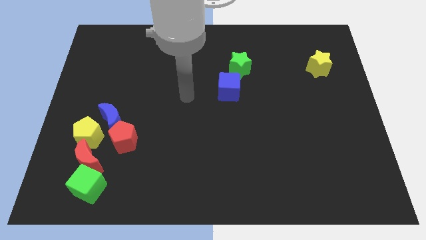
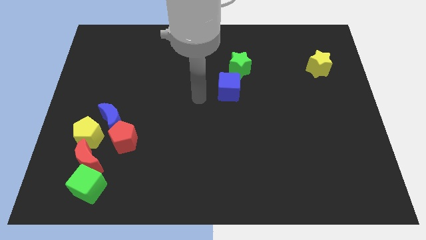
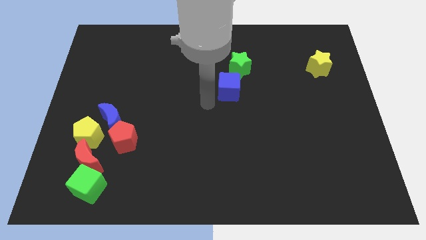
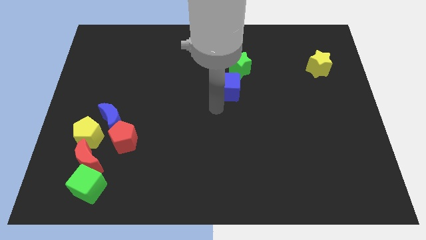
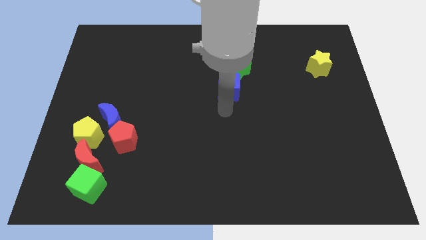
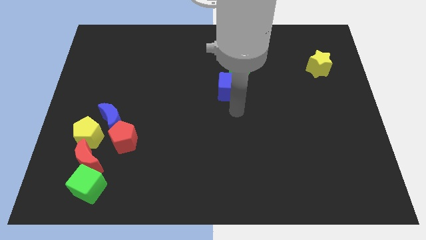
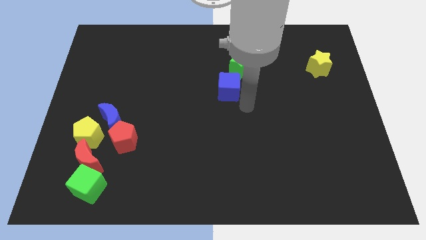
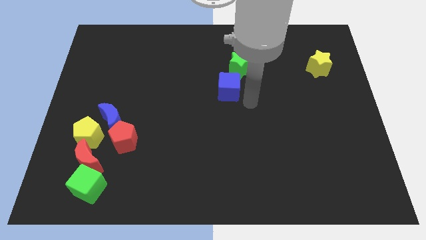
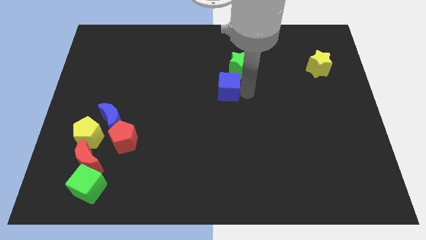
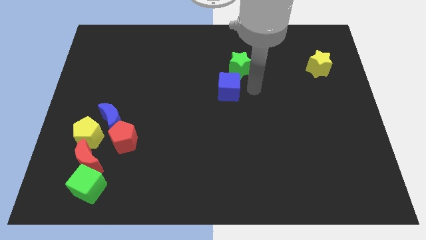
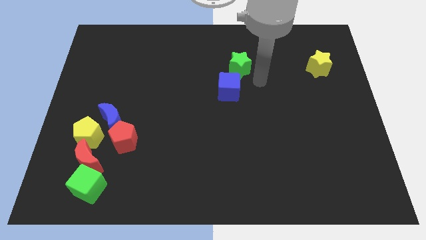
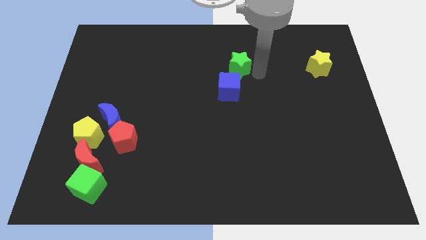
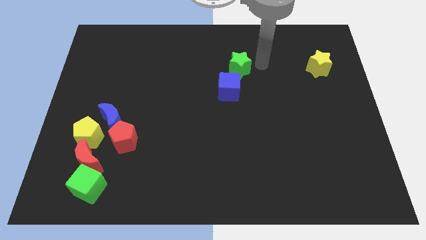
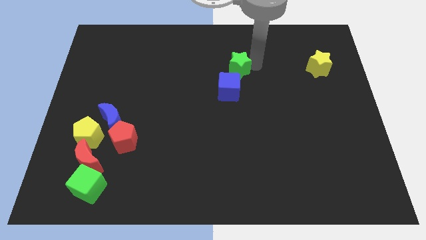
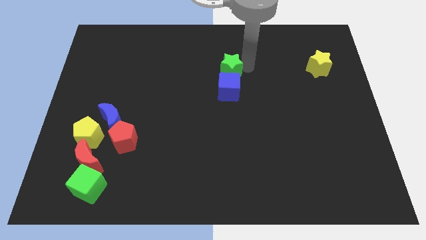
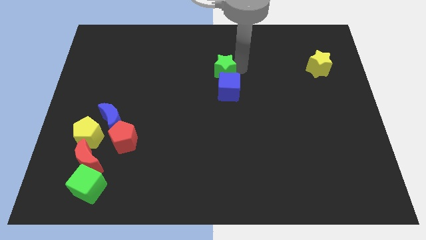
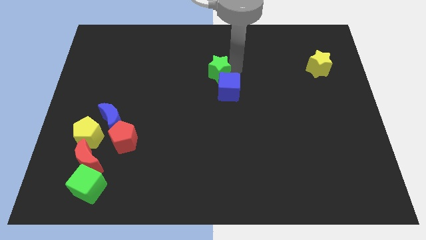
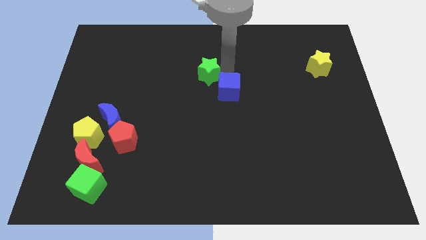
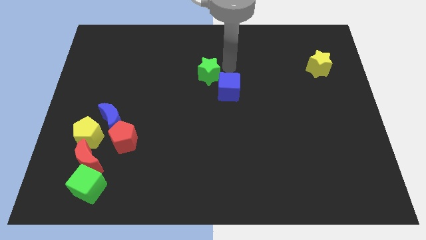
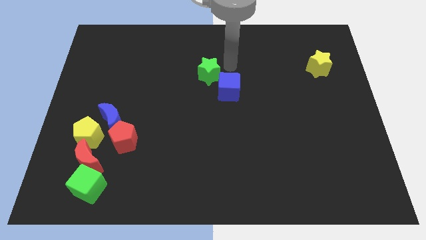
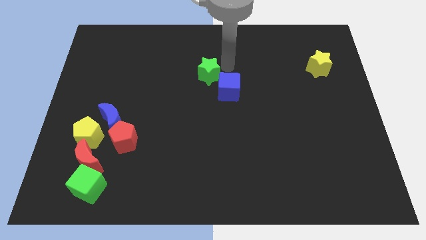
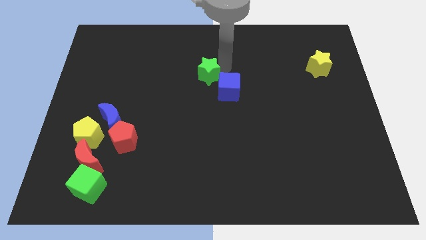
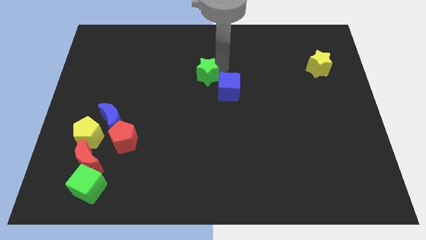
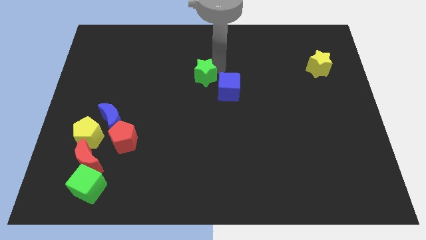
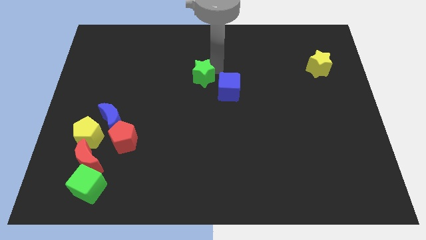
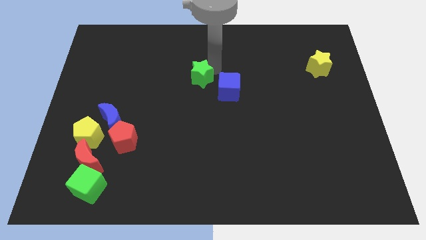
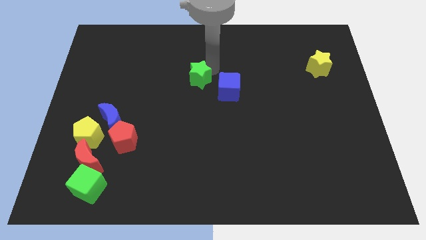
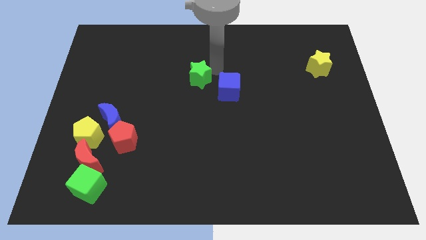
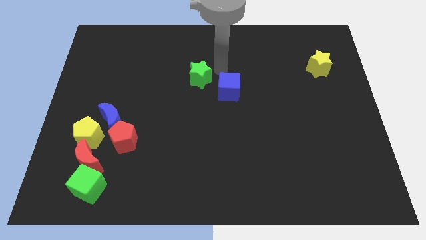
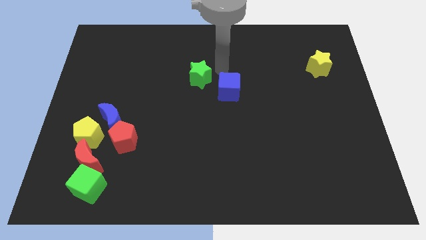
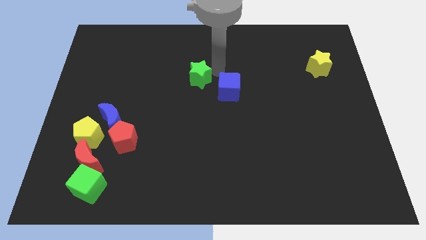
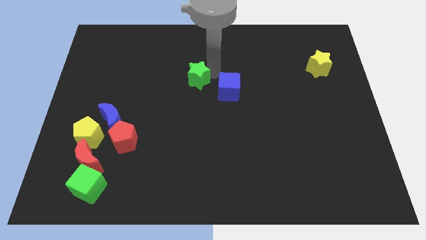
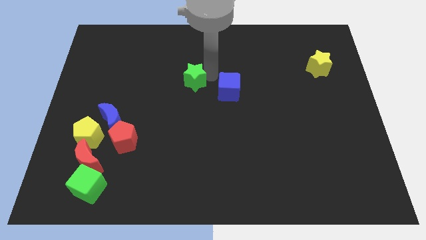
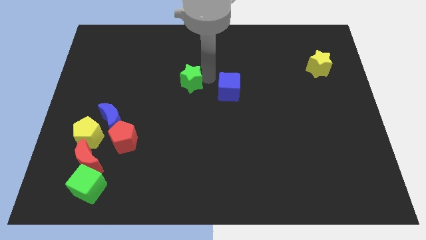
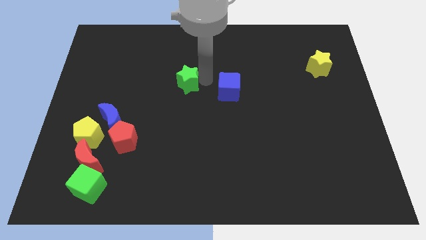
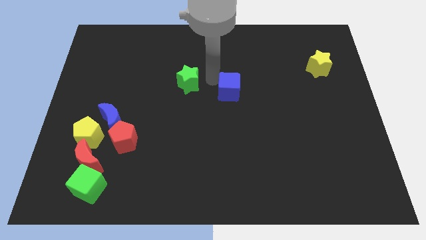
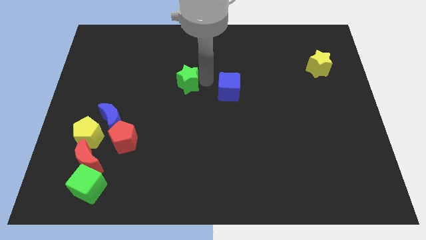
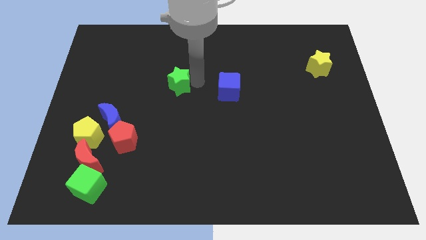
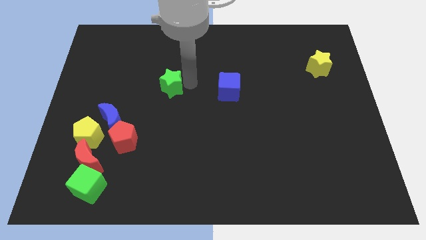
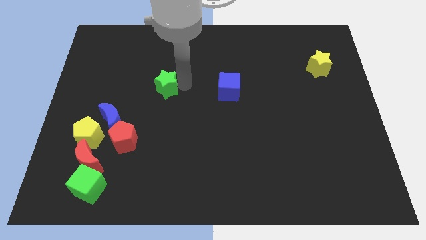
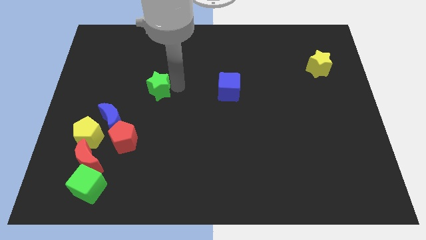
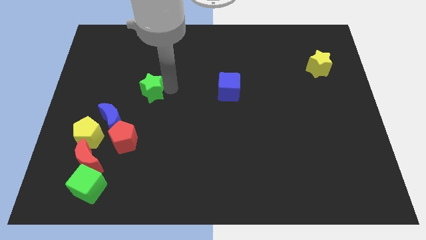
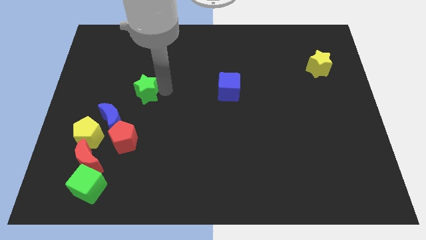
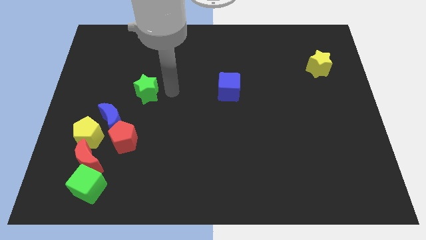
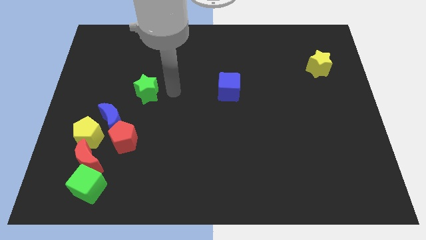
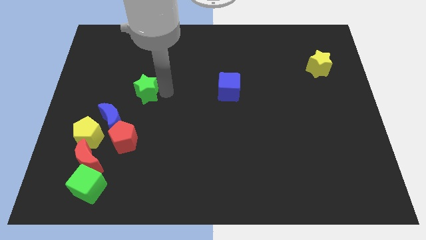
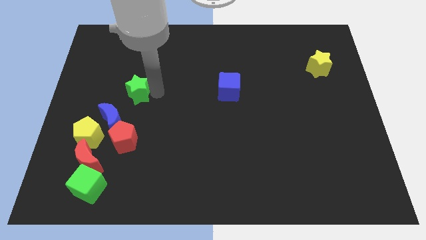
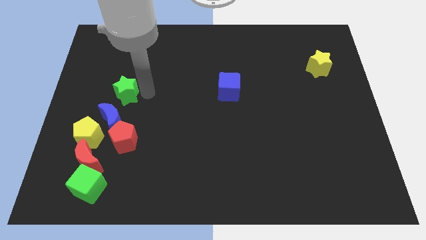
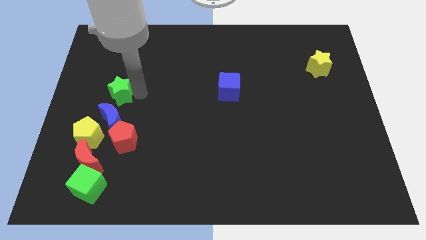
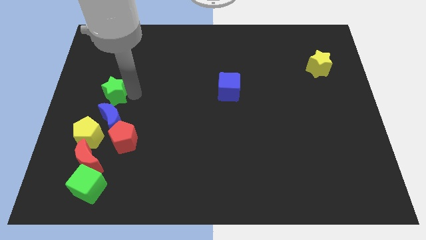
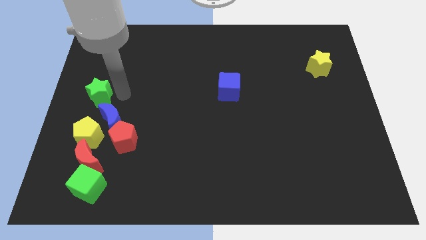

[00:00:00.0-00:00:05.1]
move the green star to the center left

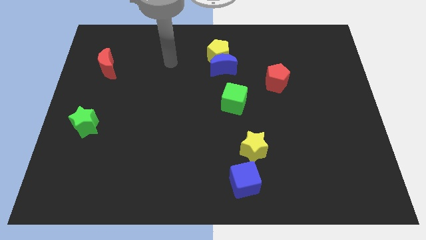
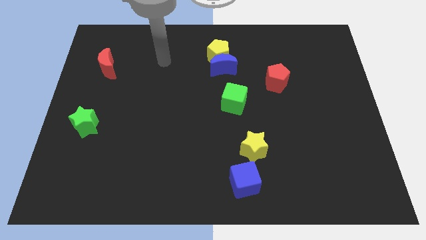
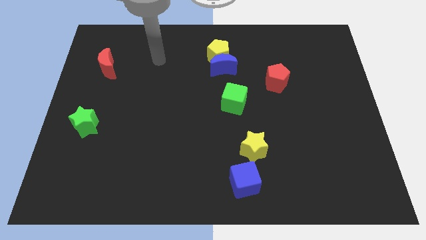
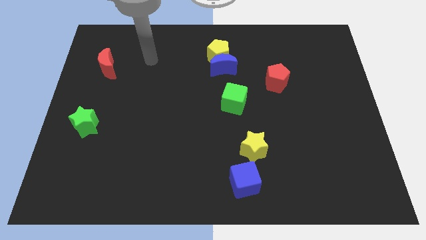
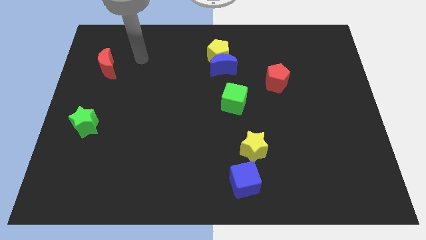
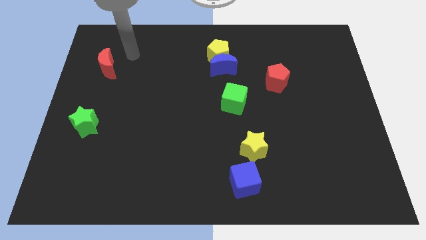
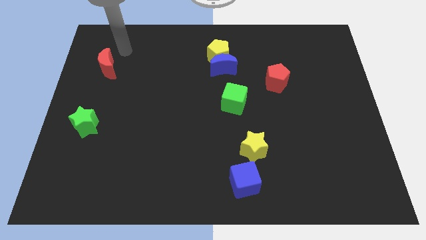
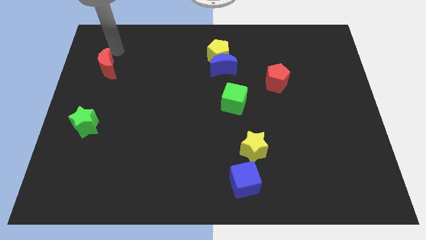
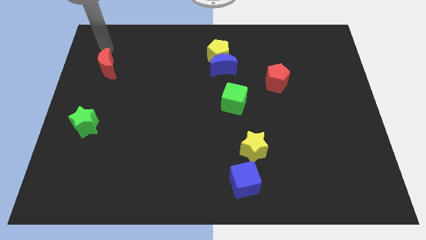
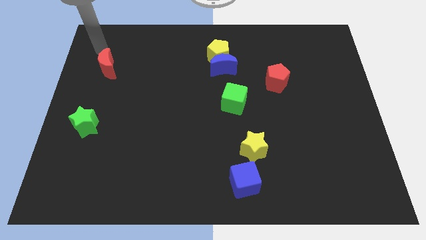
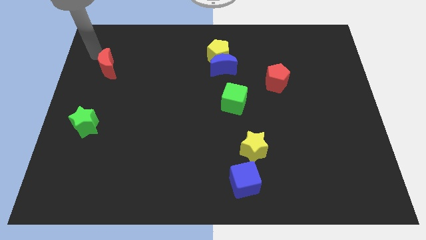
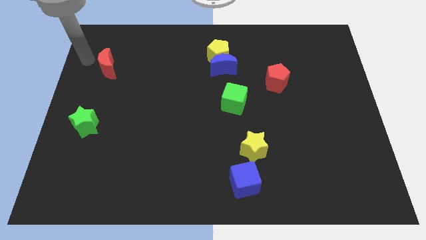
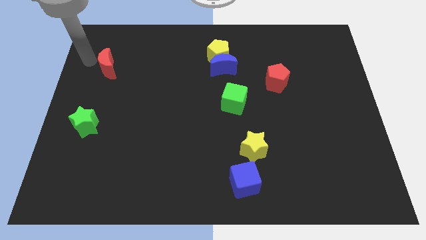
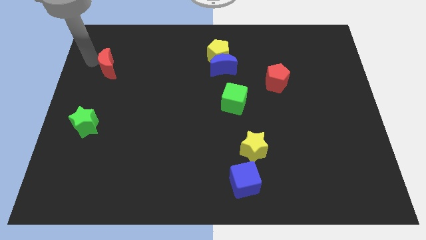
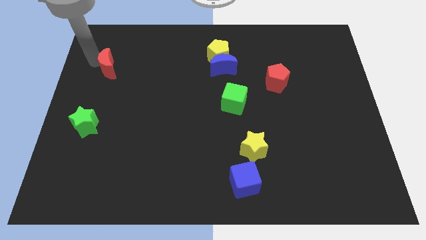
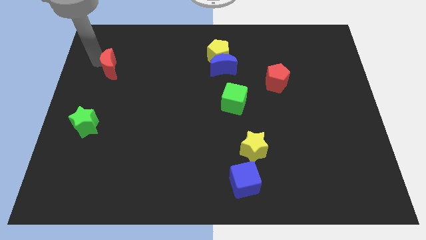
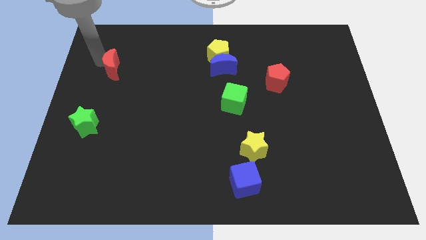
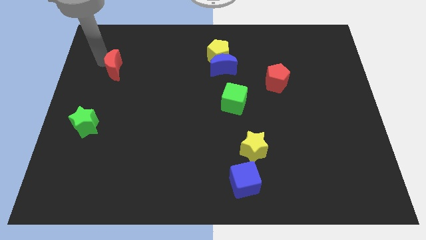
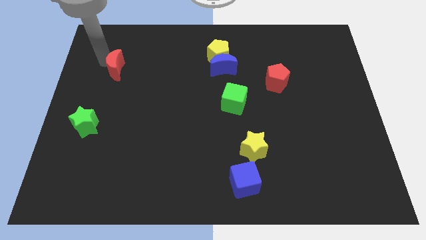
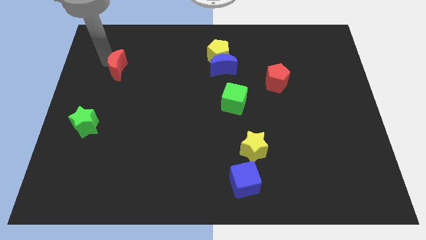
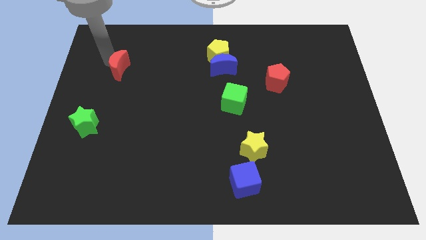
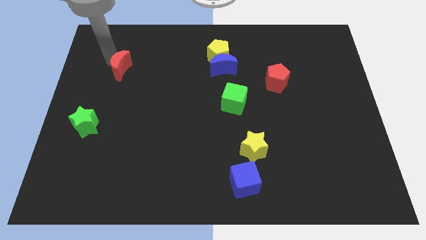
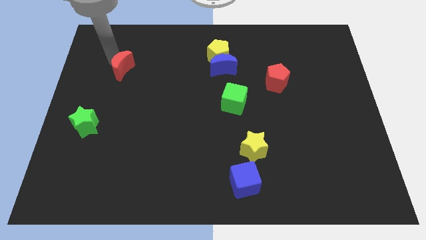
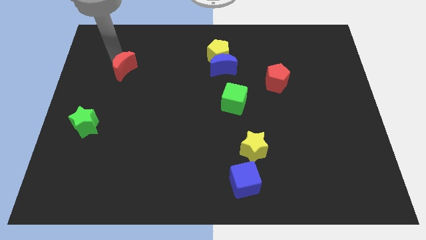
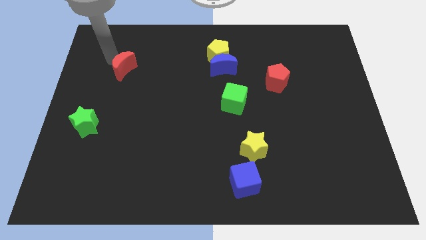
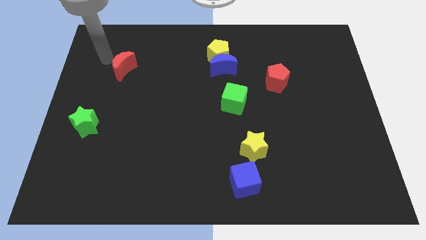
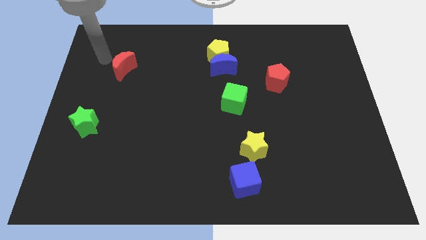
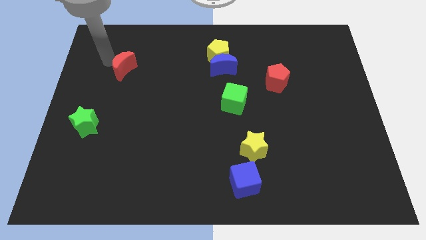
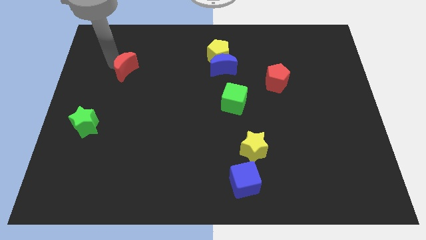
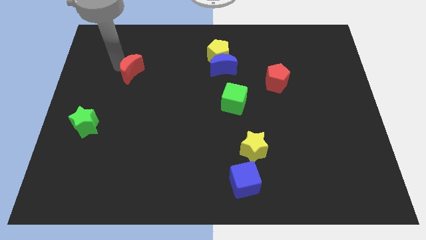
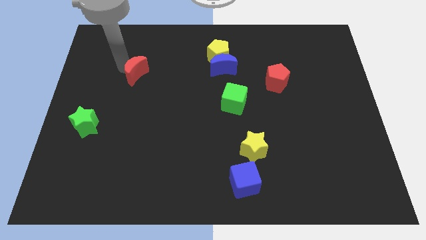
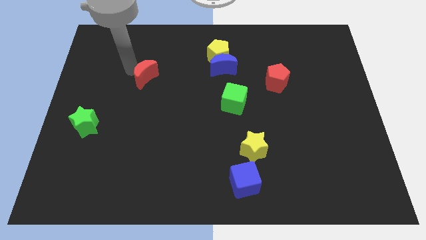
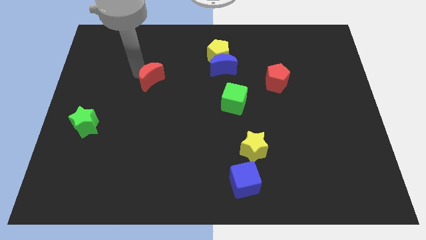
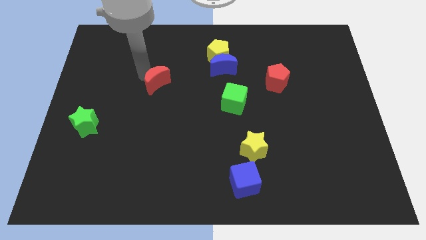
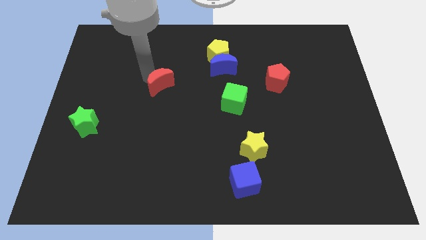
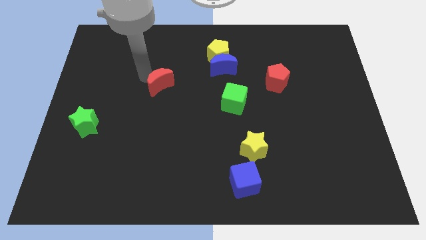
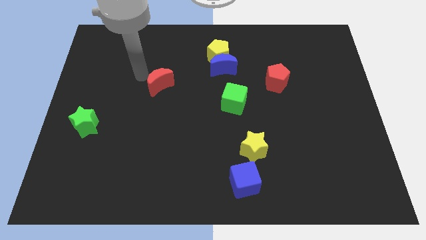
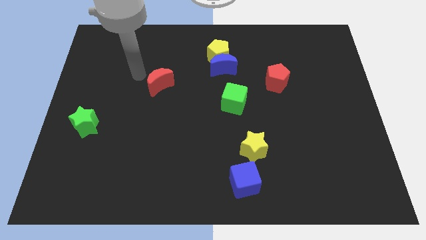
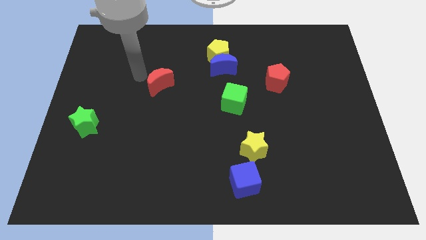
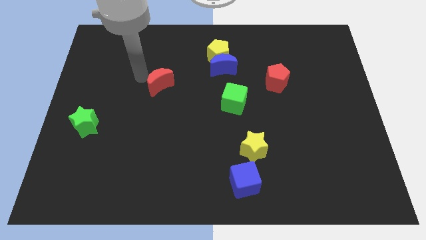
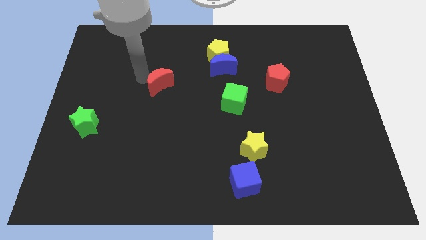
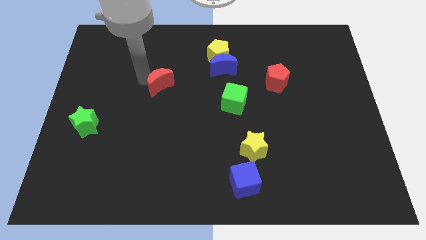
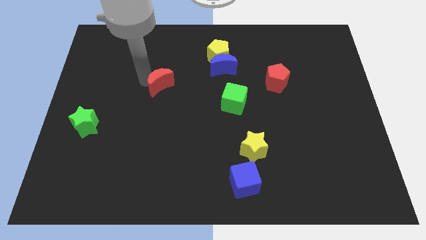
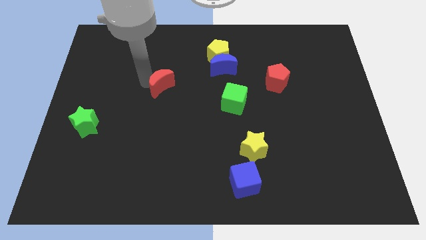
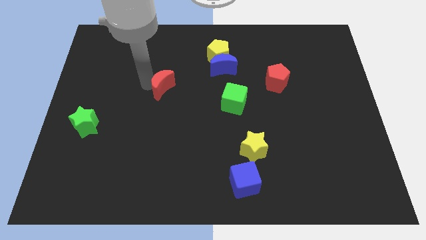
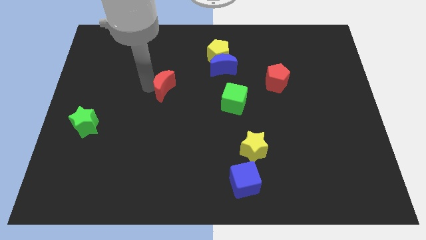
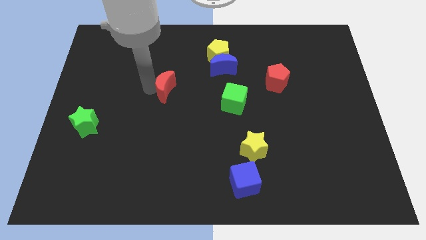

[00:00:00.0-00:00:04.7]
slide the red moon to the middle of the board
